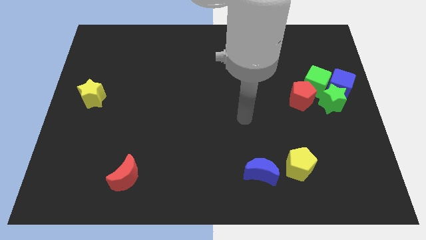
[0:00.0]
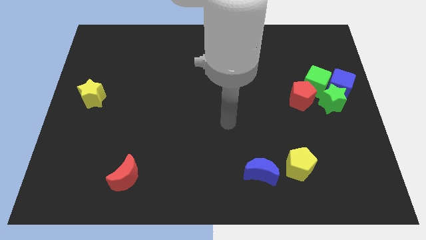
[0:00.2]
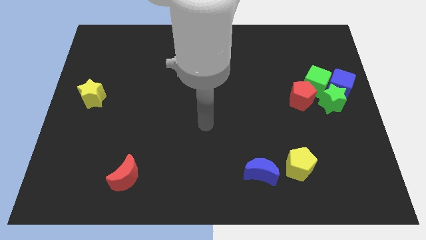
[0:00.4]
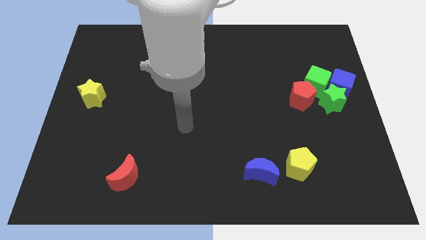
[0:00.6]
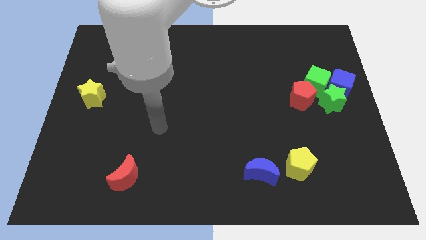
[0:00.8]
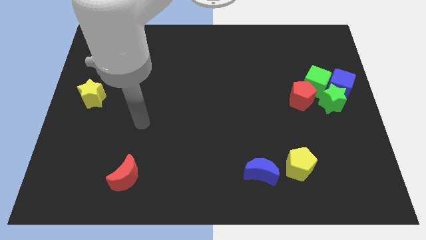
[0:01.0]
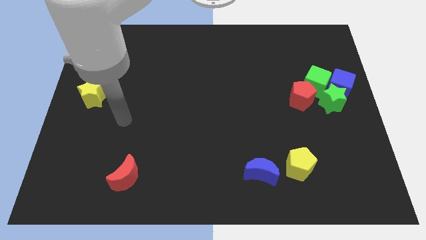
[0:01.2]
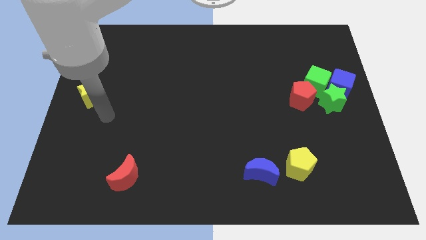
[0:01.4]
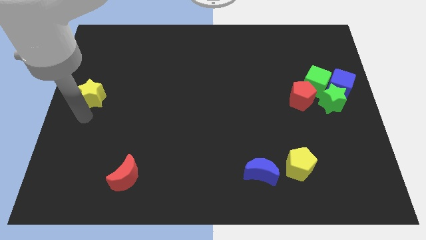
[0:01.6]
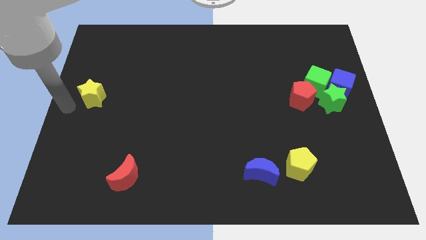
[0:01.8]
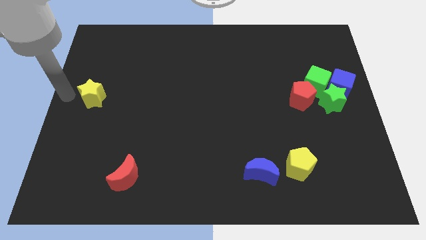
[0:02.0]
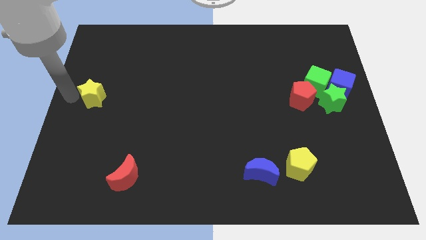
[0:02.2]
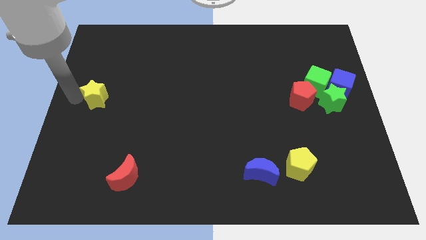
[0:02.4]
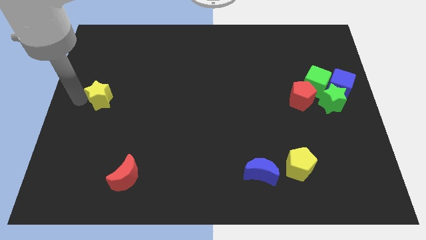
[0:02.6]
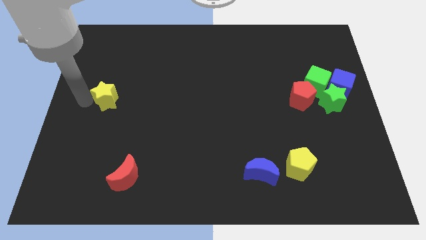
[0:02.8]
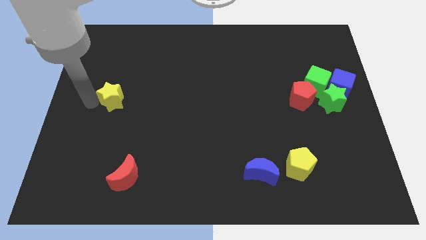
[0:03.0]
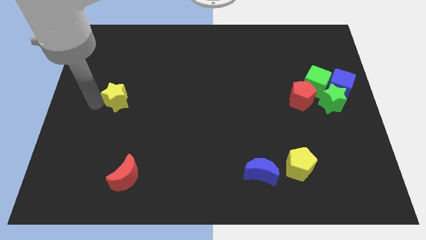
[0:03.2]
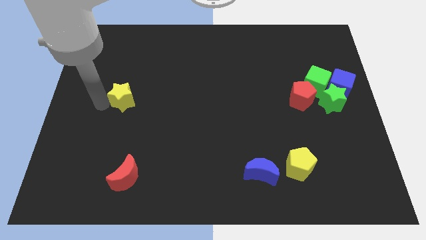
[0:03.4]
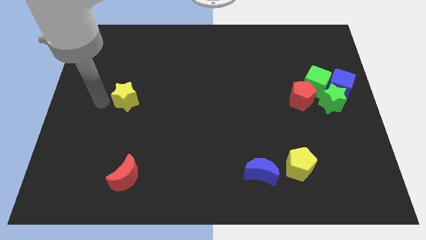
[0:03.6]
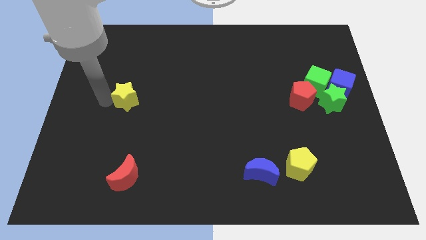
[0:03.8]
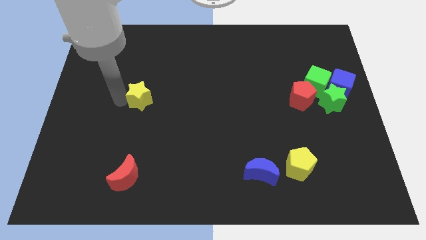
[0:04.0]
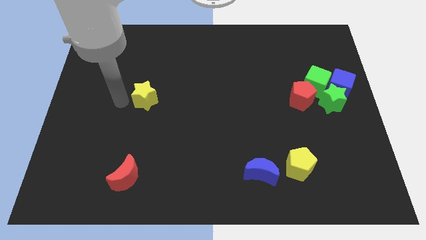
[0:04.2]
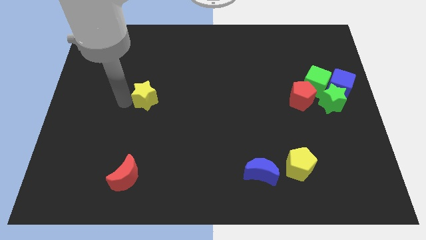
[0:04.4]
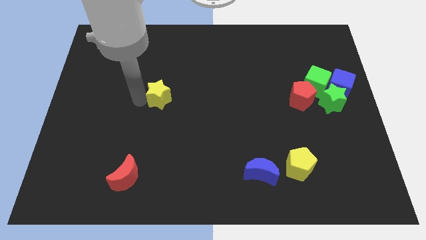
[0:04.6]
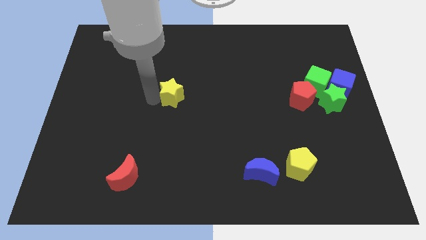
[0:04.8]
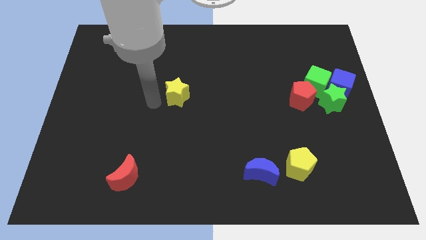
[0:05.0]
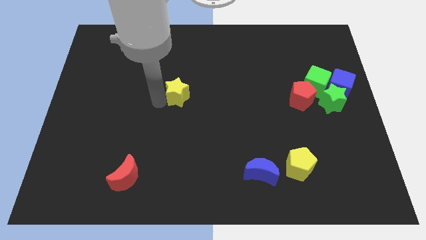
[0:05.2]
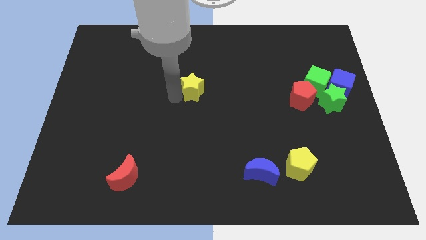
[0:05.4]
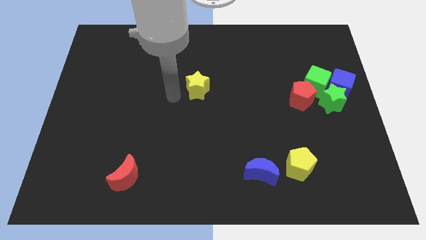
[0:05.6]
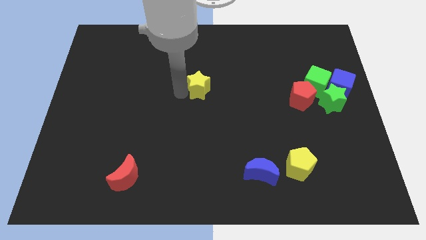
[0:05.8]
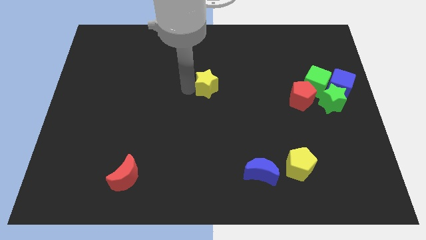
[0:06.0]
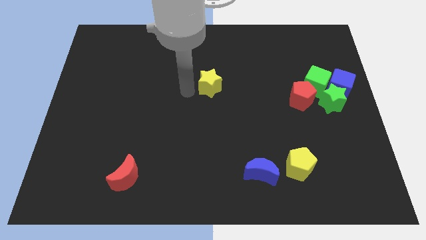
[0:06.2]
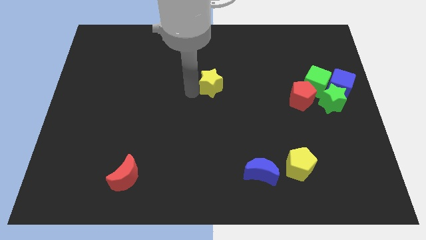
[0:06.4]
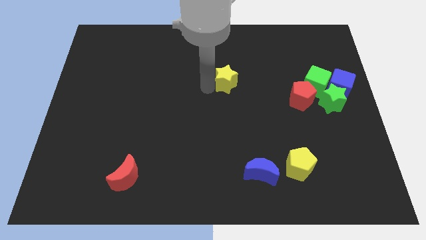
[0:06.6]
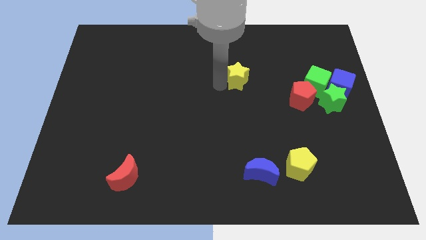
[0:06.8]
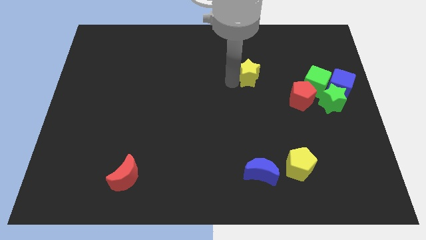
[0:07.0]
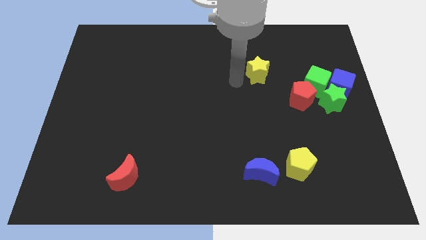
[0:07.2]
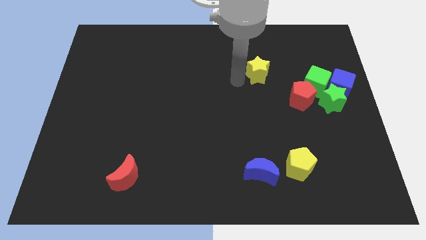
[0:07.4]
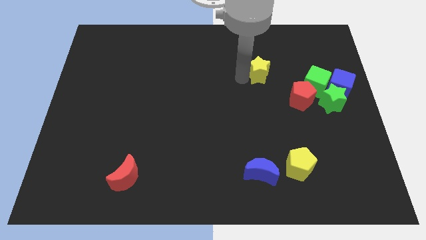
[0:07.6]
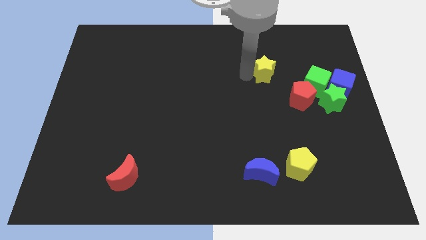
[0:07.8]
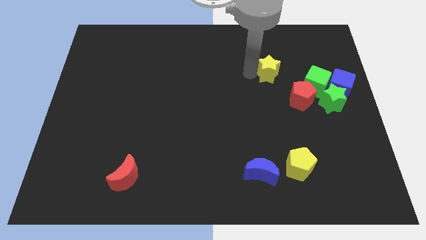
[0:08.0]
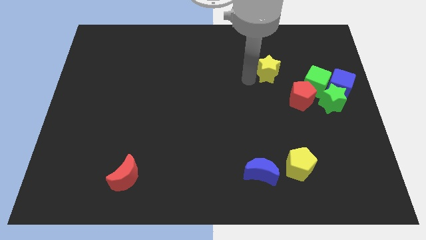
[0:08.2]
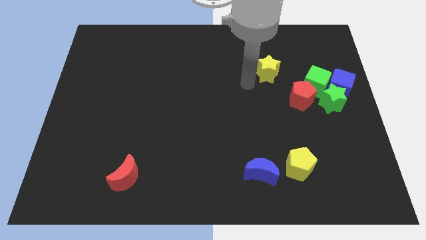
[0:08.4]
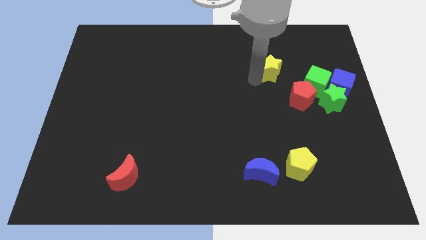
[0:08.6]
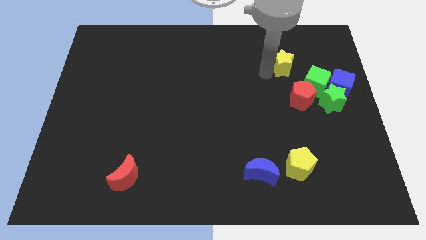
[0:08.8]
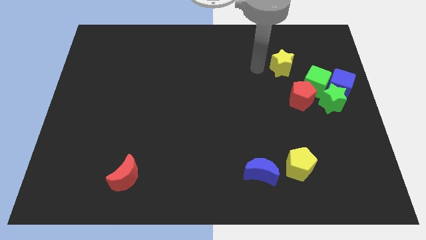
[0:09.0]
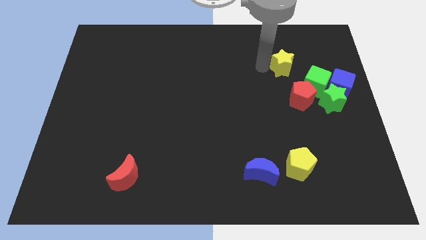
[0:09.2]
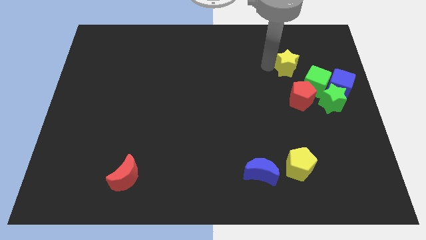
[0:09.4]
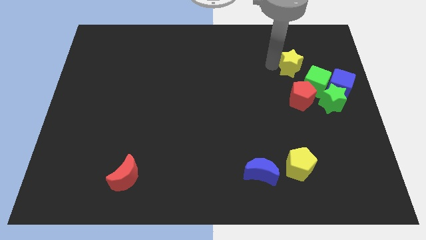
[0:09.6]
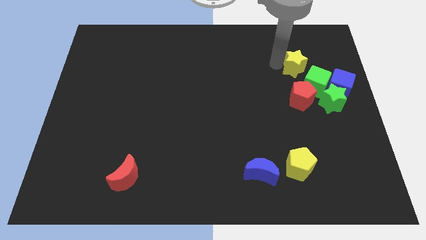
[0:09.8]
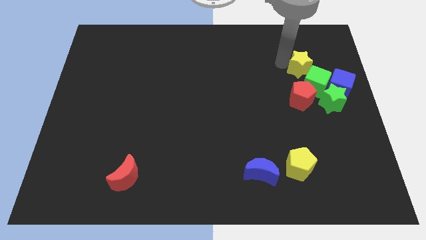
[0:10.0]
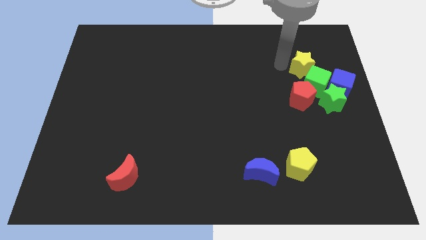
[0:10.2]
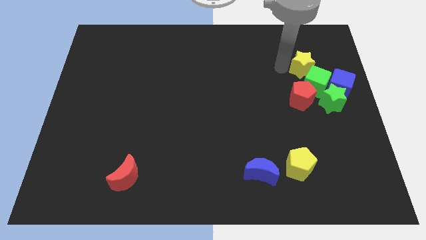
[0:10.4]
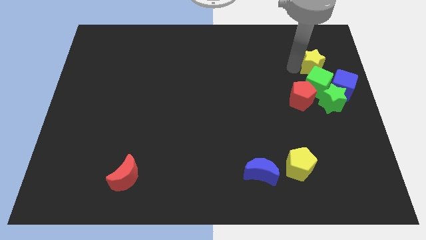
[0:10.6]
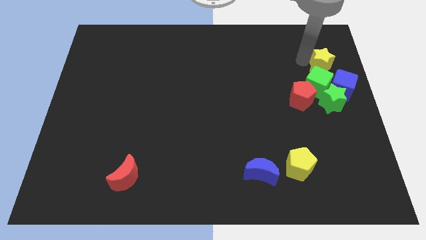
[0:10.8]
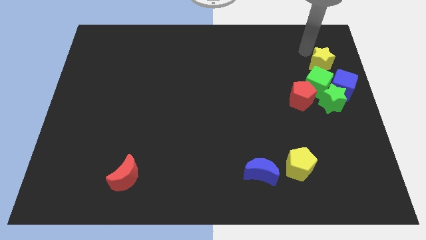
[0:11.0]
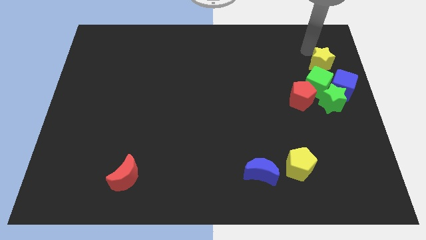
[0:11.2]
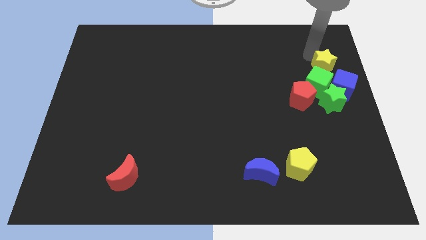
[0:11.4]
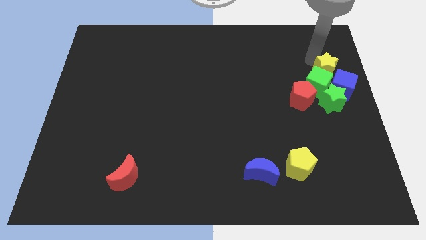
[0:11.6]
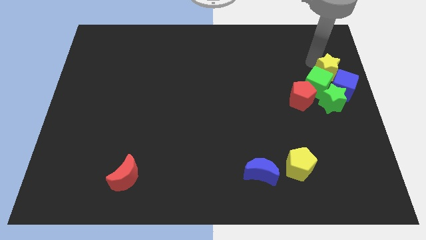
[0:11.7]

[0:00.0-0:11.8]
move the yellow star next to the blue cube
